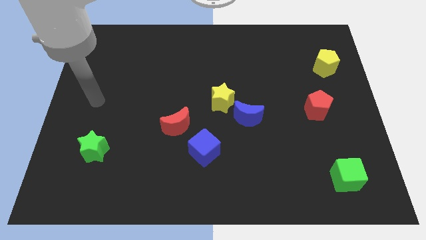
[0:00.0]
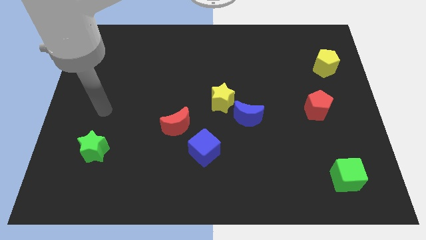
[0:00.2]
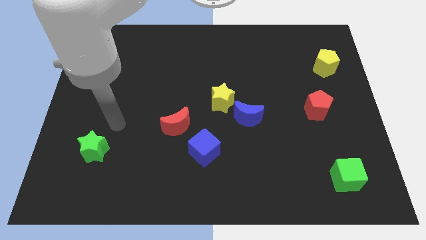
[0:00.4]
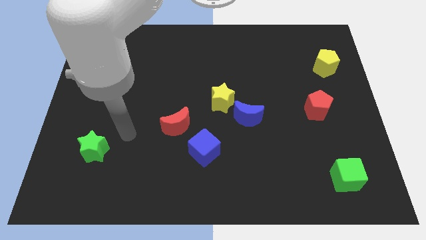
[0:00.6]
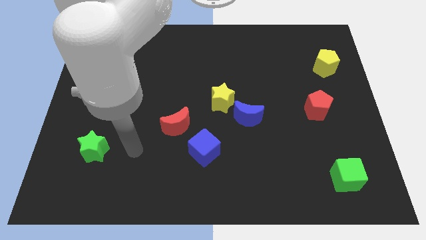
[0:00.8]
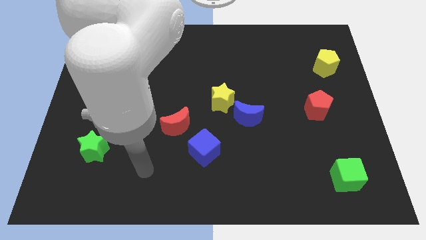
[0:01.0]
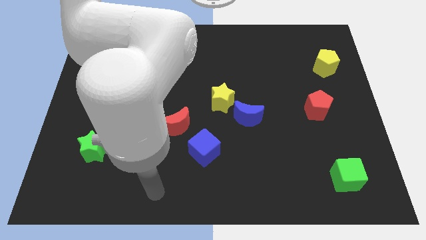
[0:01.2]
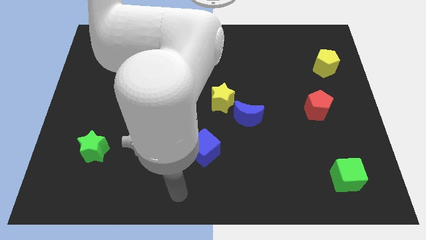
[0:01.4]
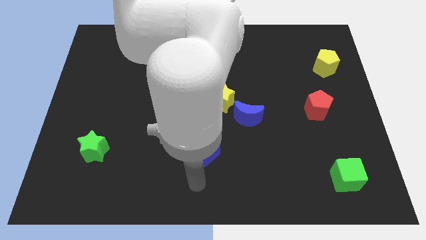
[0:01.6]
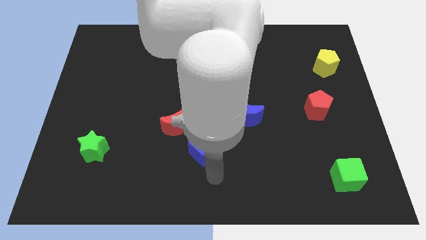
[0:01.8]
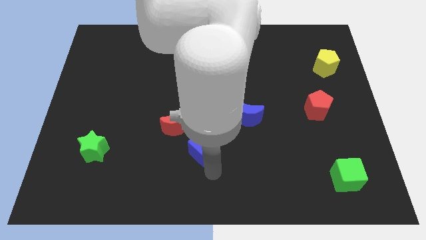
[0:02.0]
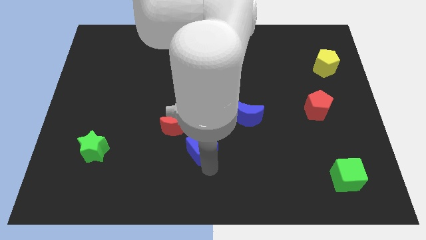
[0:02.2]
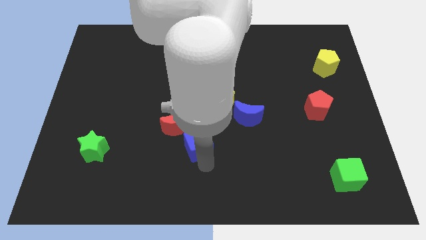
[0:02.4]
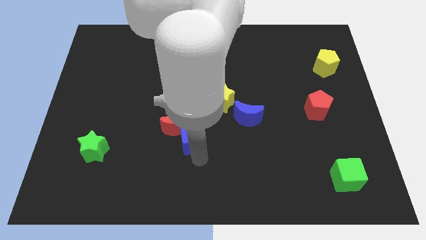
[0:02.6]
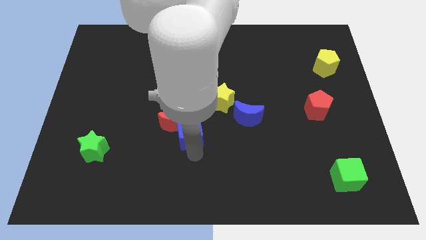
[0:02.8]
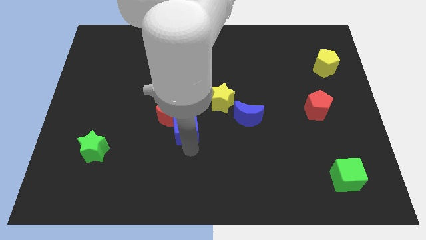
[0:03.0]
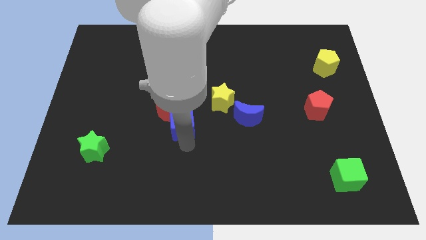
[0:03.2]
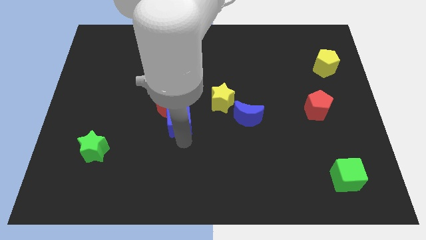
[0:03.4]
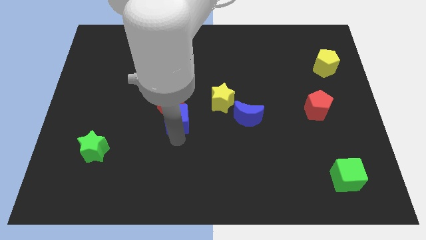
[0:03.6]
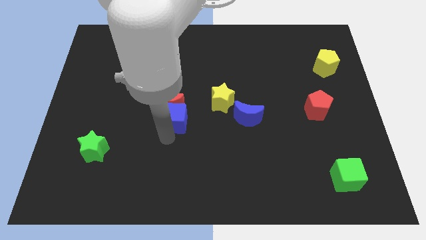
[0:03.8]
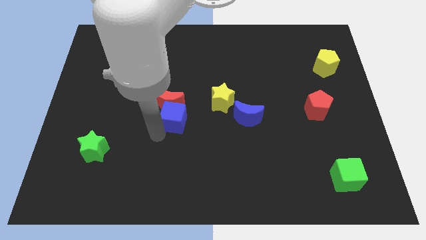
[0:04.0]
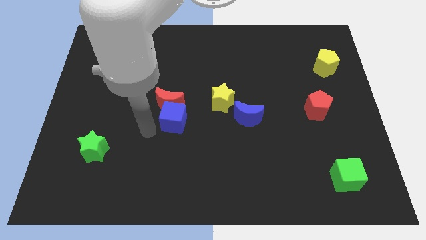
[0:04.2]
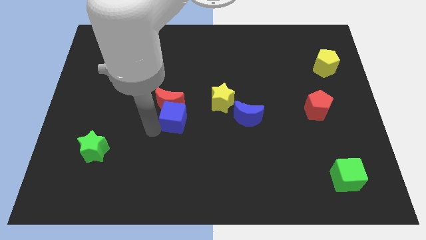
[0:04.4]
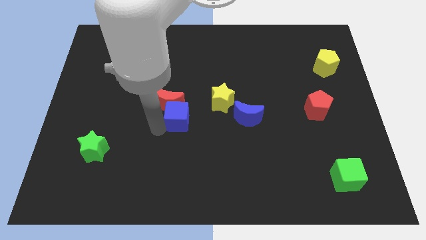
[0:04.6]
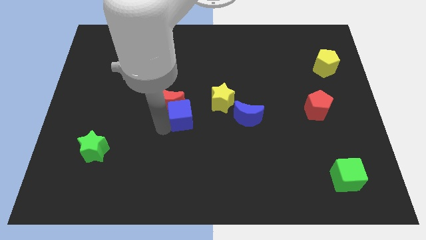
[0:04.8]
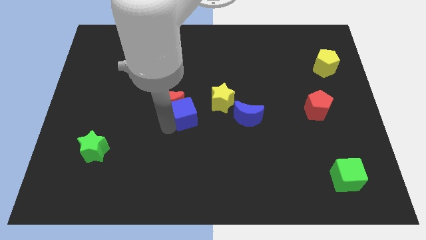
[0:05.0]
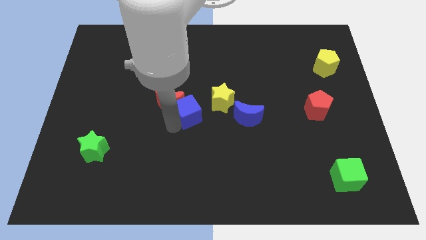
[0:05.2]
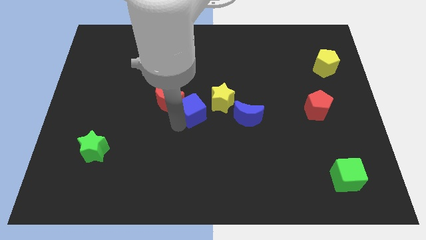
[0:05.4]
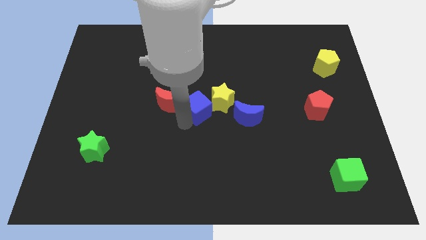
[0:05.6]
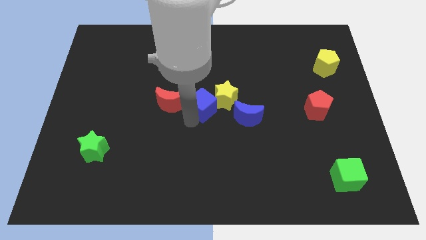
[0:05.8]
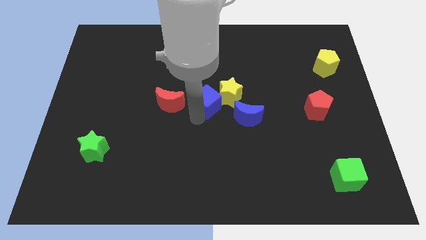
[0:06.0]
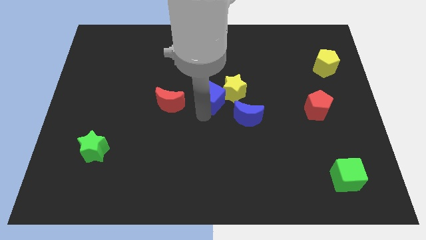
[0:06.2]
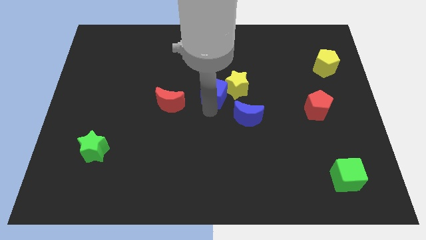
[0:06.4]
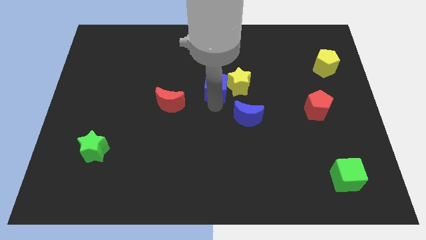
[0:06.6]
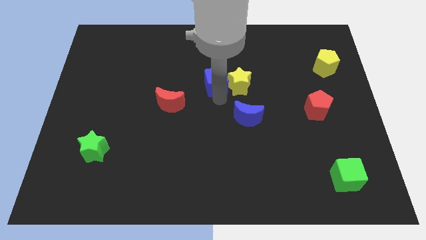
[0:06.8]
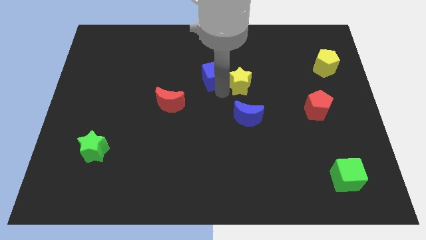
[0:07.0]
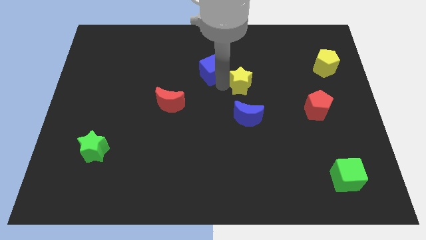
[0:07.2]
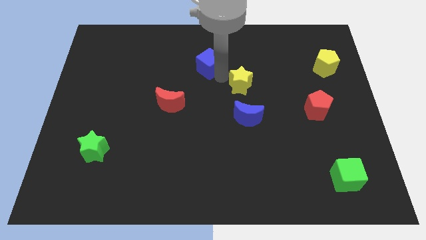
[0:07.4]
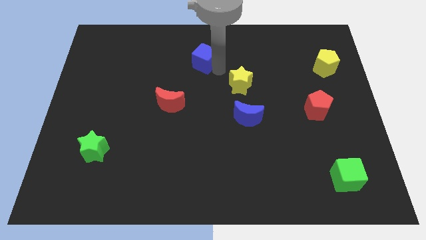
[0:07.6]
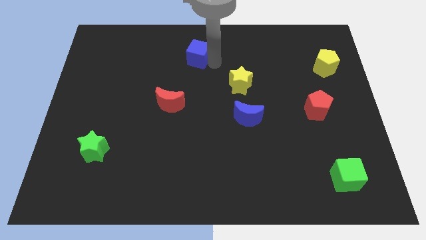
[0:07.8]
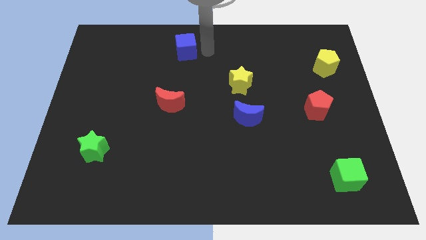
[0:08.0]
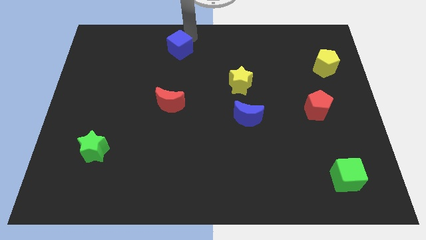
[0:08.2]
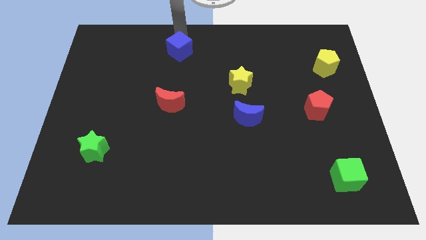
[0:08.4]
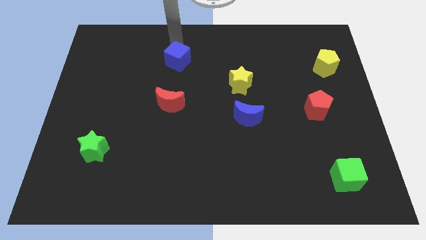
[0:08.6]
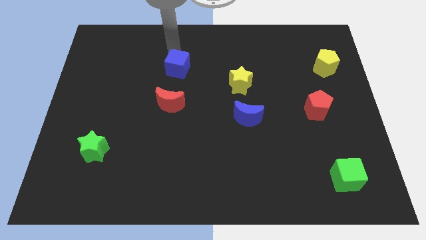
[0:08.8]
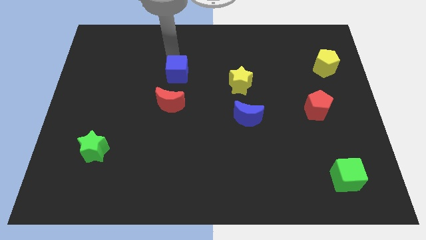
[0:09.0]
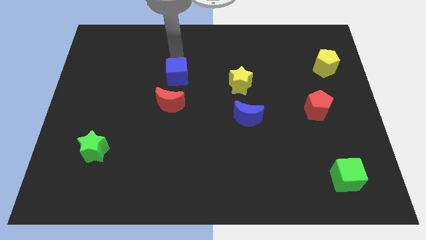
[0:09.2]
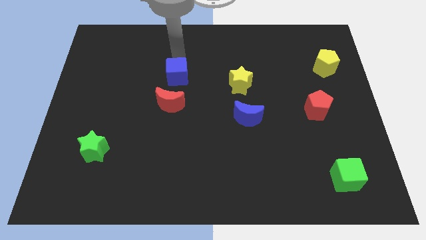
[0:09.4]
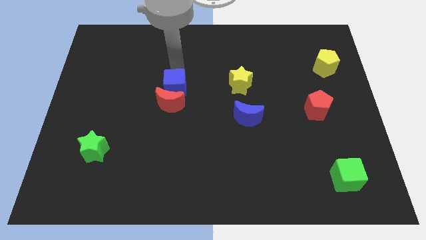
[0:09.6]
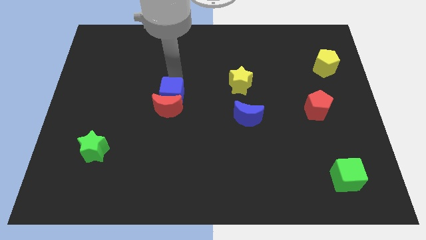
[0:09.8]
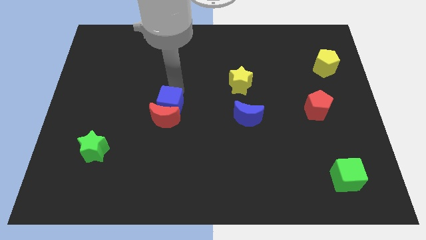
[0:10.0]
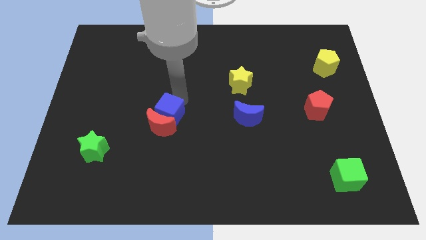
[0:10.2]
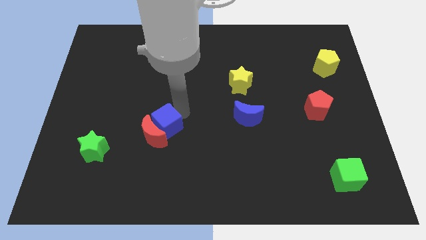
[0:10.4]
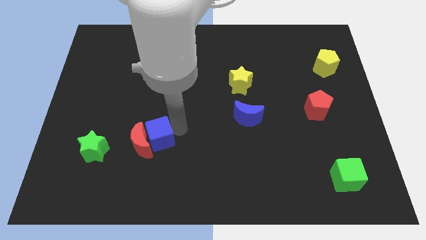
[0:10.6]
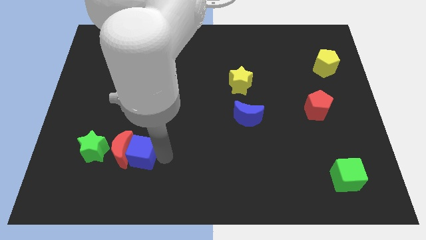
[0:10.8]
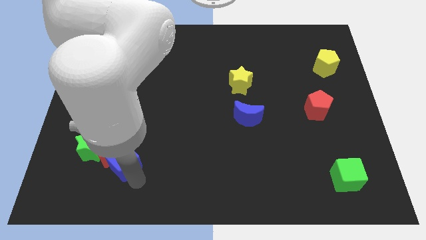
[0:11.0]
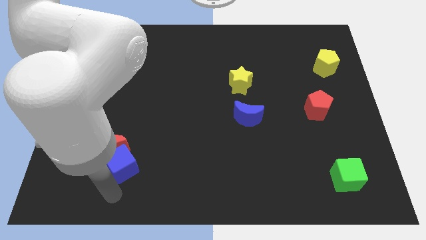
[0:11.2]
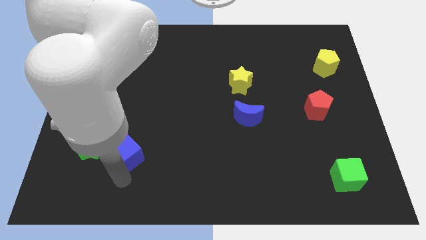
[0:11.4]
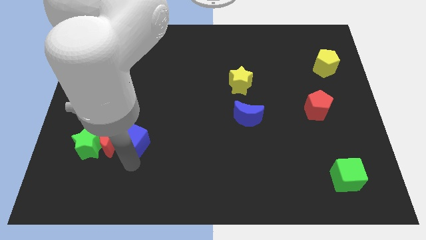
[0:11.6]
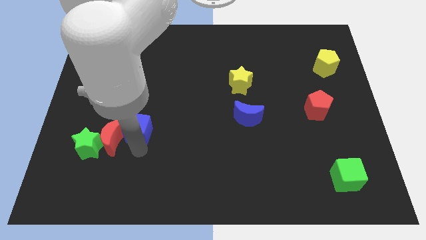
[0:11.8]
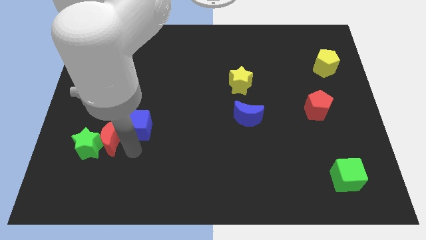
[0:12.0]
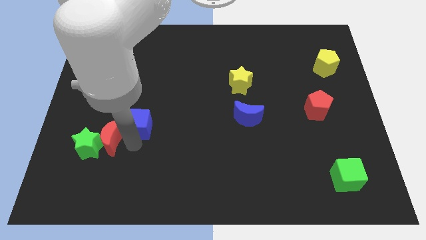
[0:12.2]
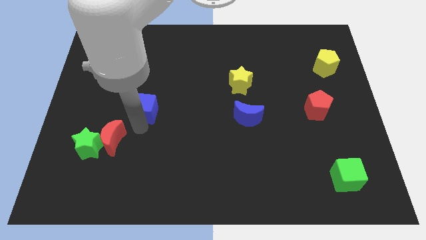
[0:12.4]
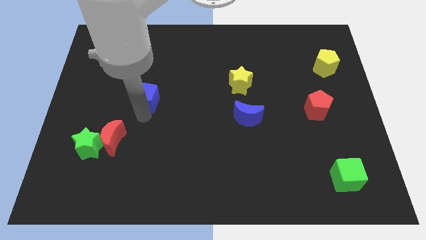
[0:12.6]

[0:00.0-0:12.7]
slide the blue cube up and then left

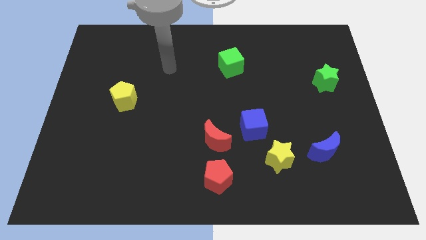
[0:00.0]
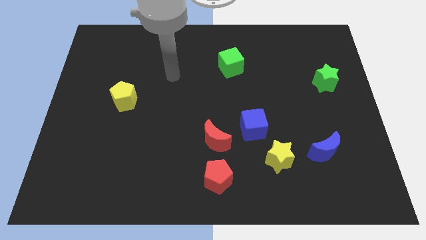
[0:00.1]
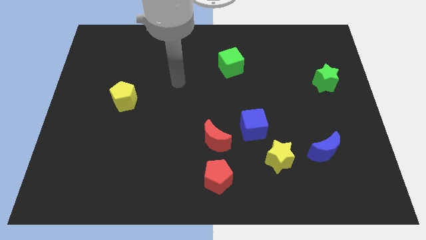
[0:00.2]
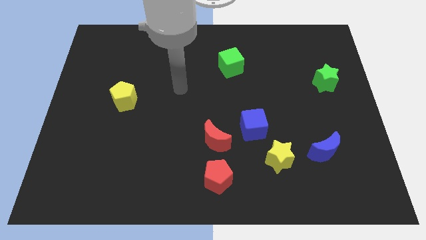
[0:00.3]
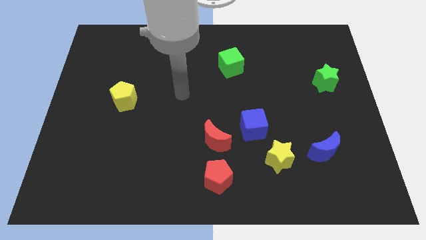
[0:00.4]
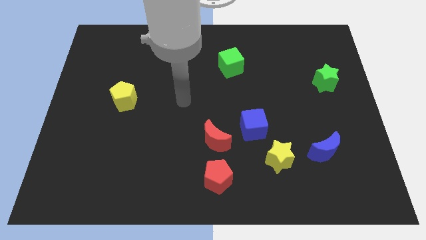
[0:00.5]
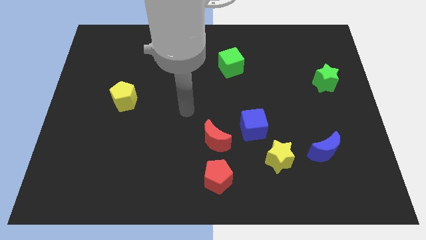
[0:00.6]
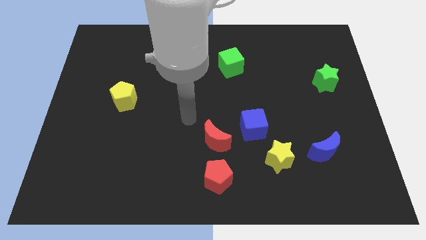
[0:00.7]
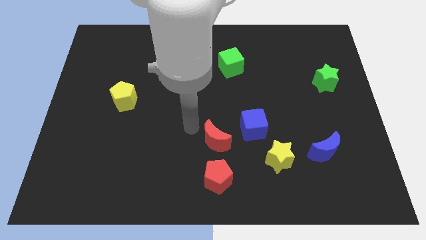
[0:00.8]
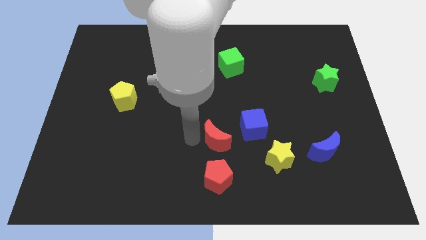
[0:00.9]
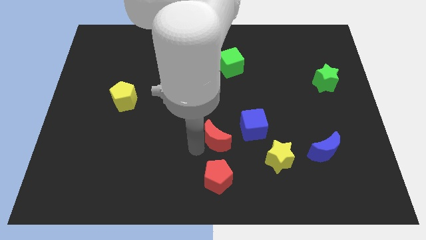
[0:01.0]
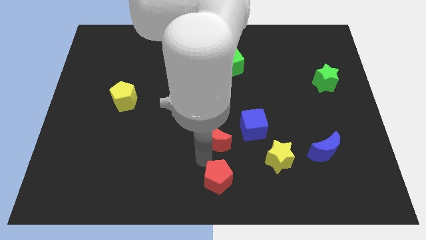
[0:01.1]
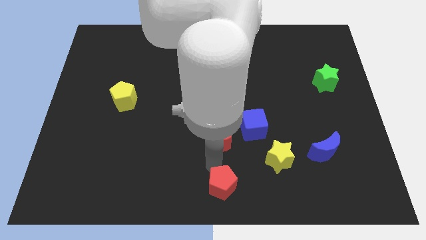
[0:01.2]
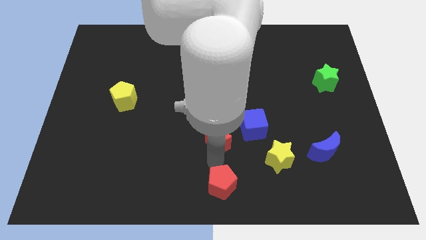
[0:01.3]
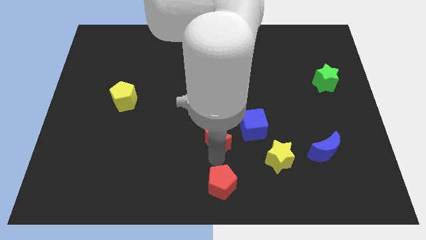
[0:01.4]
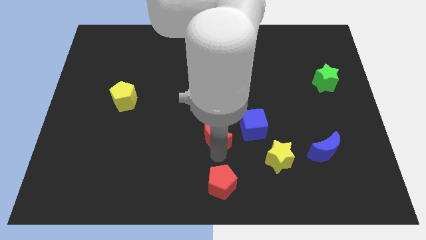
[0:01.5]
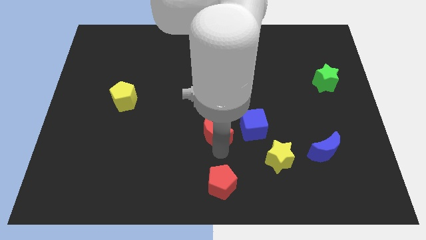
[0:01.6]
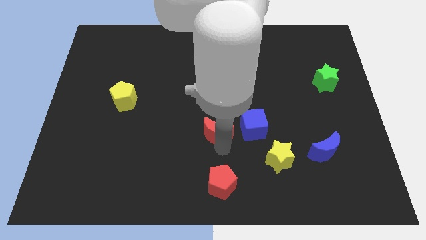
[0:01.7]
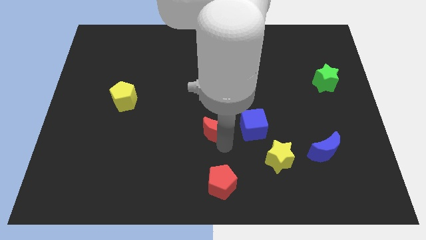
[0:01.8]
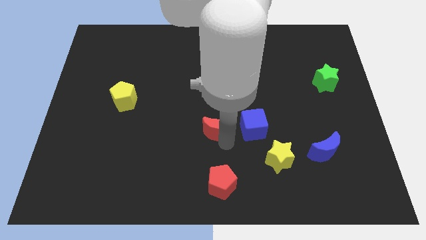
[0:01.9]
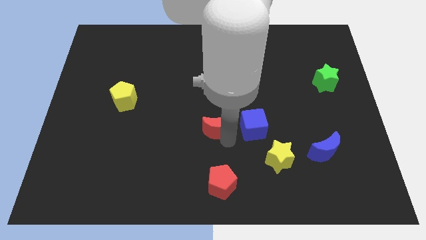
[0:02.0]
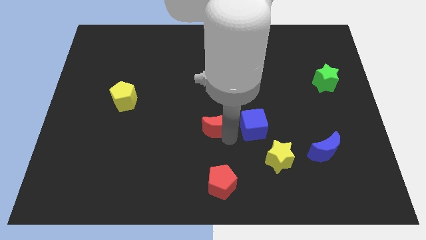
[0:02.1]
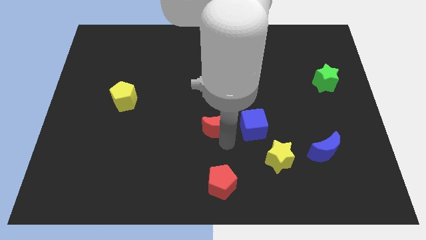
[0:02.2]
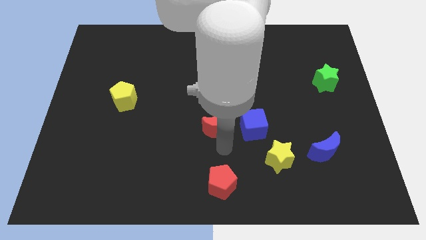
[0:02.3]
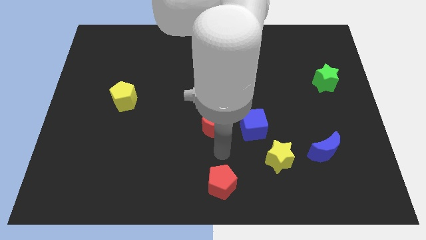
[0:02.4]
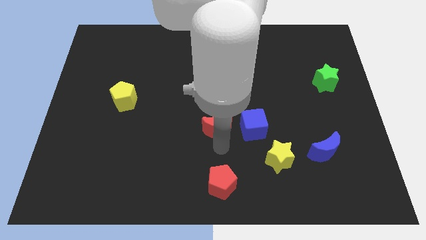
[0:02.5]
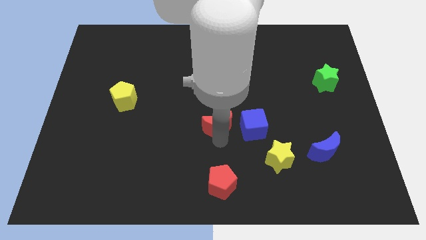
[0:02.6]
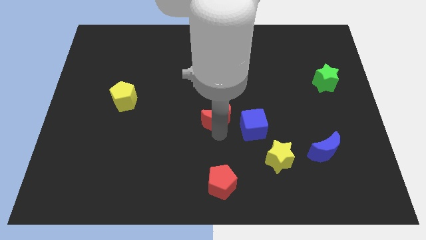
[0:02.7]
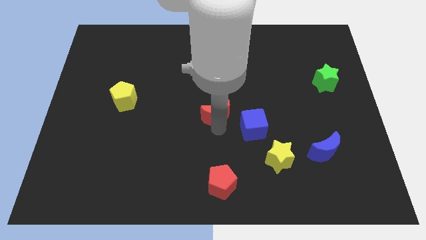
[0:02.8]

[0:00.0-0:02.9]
slightly push the red moon up
